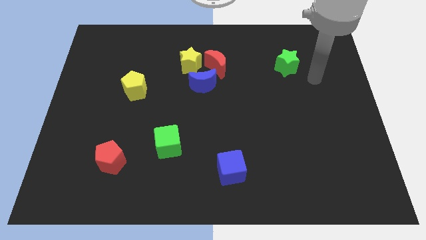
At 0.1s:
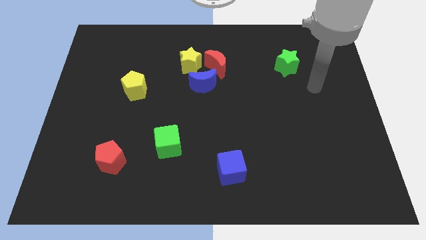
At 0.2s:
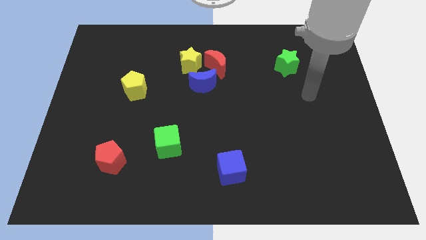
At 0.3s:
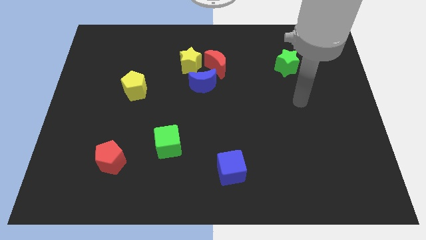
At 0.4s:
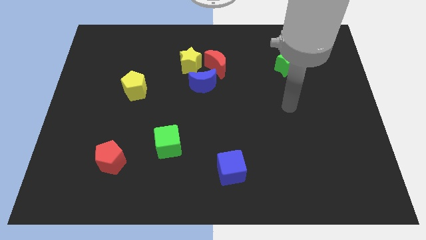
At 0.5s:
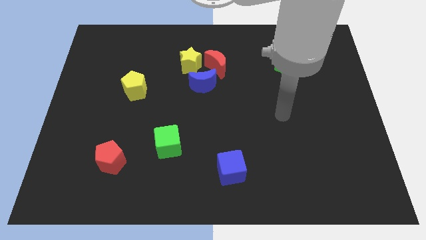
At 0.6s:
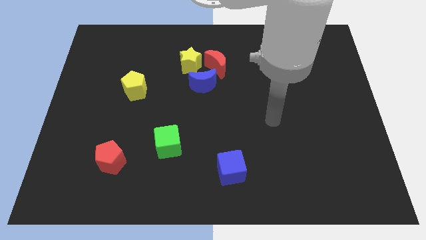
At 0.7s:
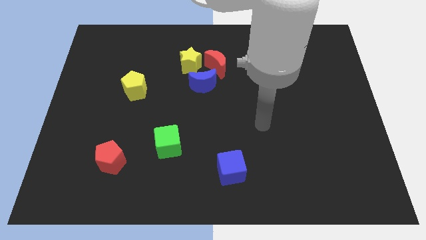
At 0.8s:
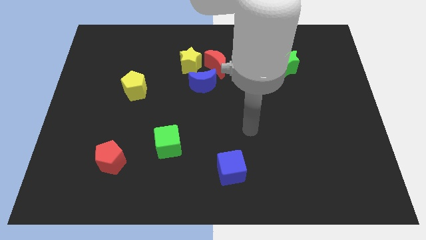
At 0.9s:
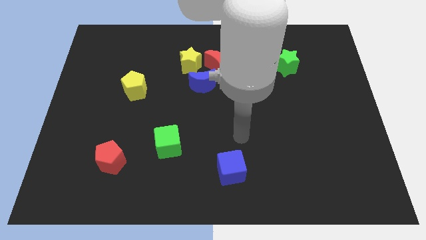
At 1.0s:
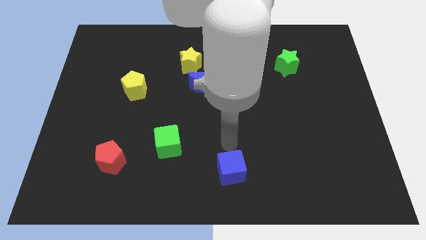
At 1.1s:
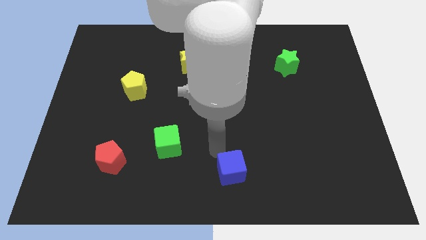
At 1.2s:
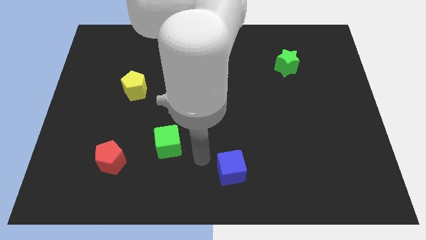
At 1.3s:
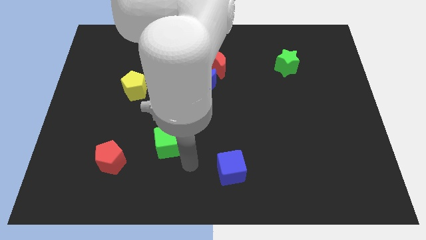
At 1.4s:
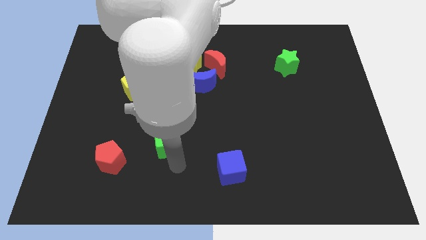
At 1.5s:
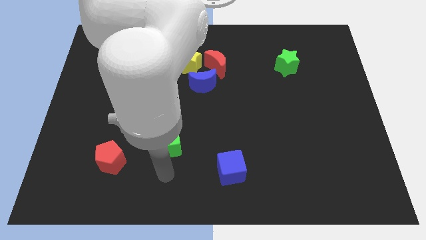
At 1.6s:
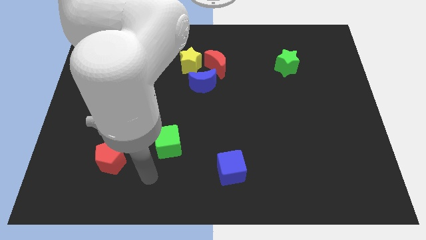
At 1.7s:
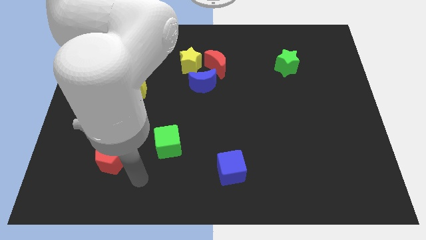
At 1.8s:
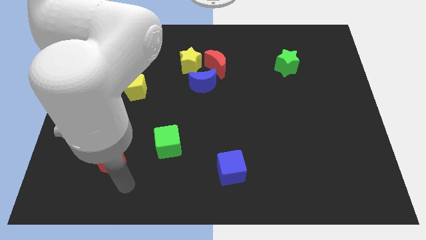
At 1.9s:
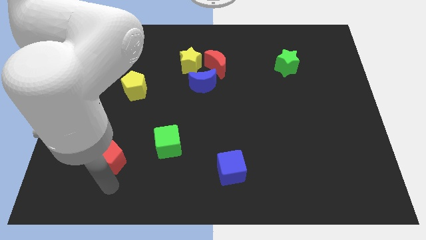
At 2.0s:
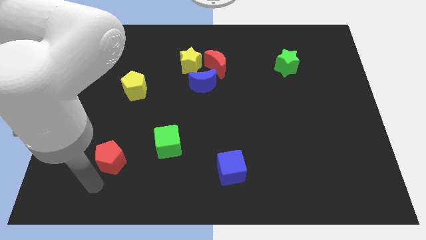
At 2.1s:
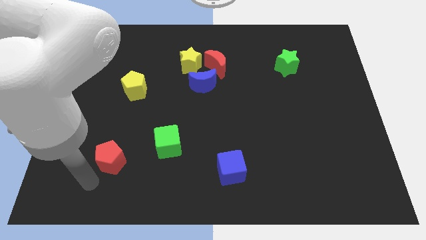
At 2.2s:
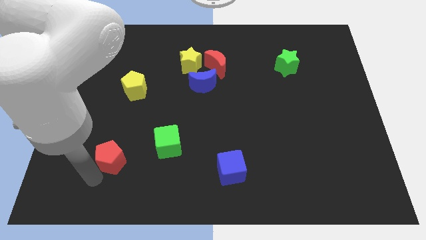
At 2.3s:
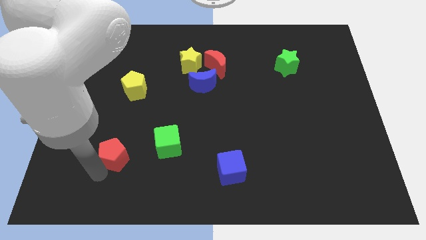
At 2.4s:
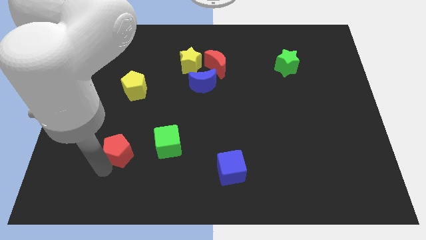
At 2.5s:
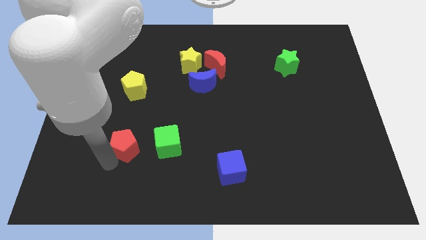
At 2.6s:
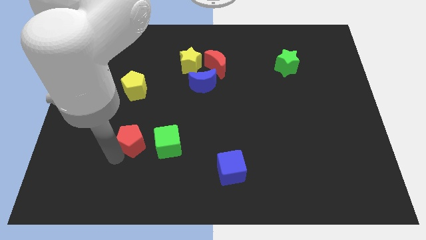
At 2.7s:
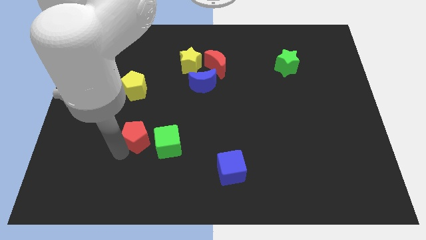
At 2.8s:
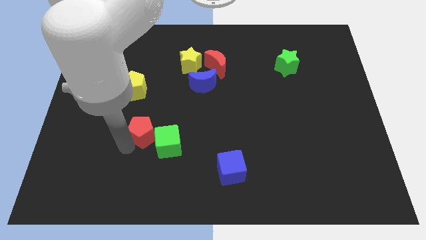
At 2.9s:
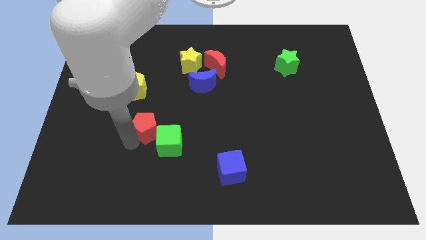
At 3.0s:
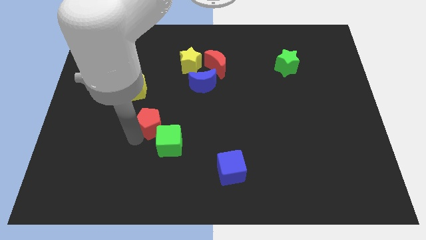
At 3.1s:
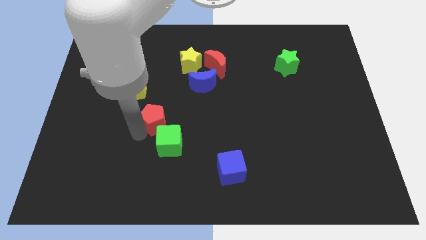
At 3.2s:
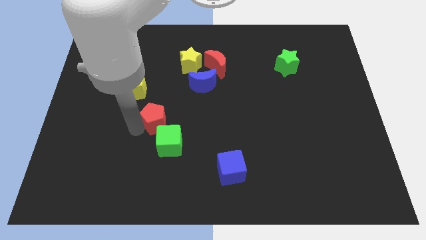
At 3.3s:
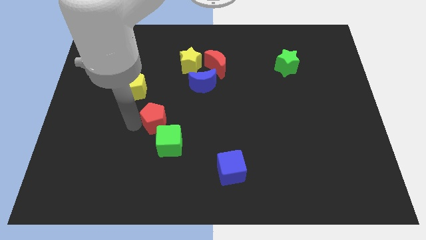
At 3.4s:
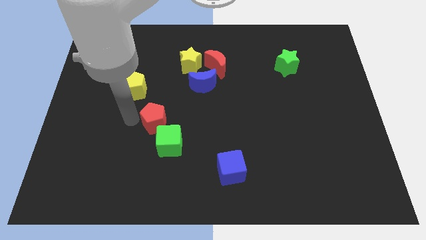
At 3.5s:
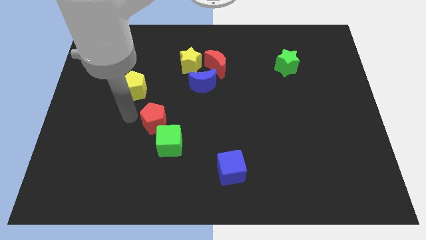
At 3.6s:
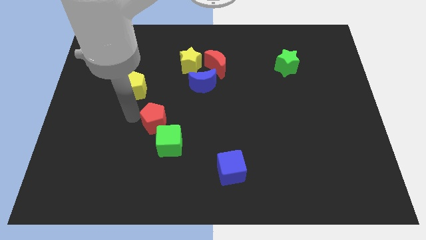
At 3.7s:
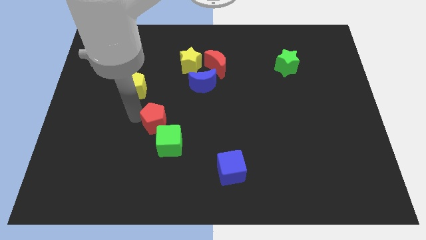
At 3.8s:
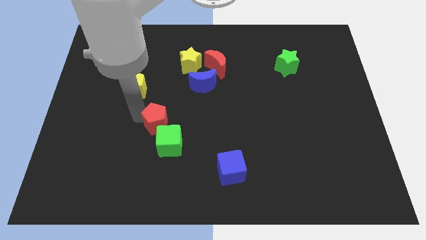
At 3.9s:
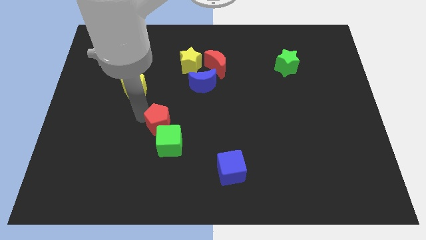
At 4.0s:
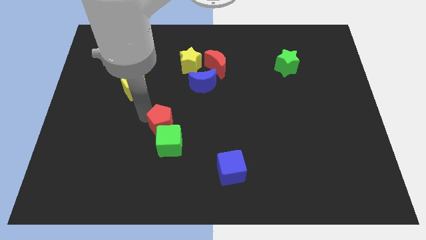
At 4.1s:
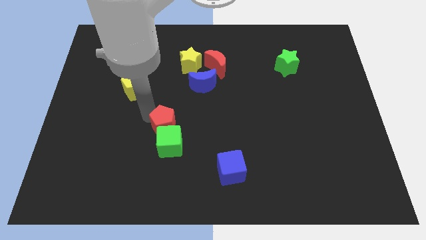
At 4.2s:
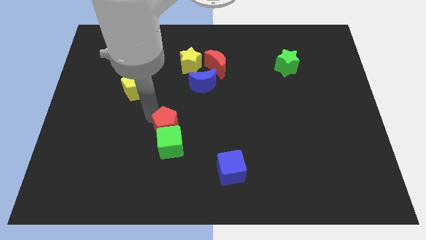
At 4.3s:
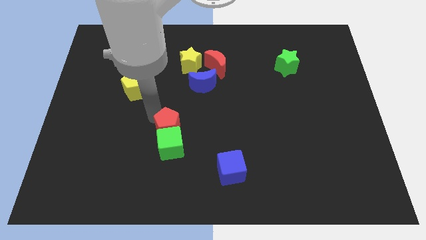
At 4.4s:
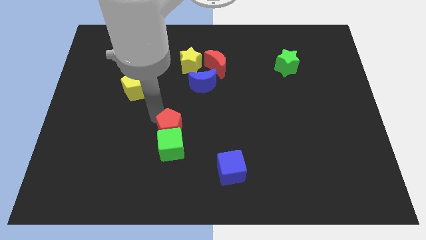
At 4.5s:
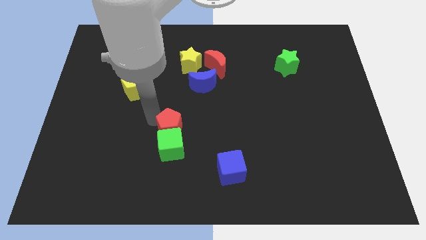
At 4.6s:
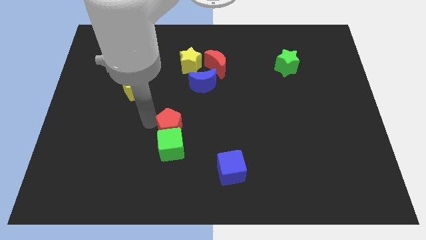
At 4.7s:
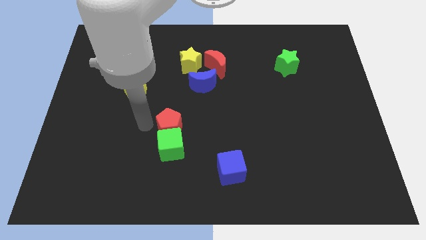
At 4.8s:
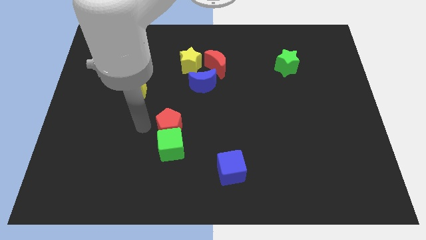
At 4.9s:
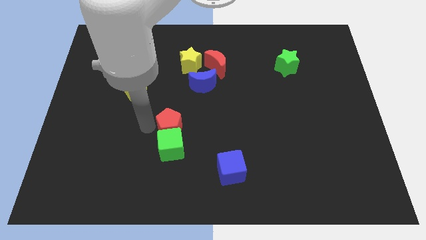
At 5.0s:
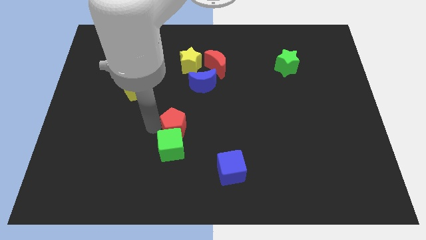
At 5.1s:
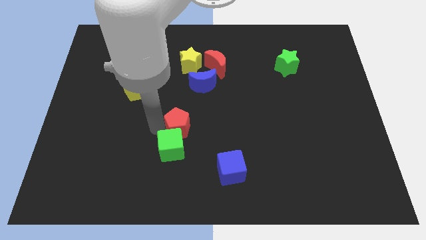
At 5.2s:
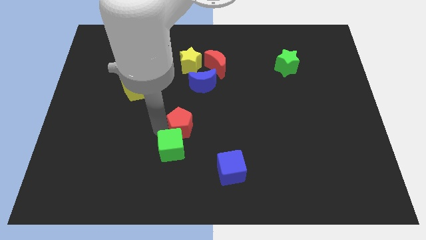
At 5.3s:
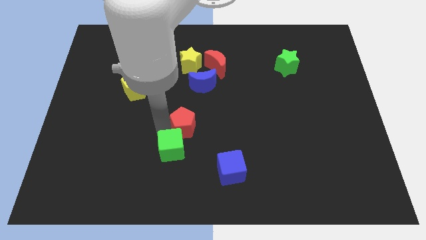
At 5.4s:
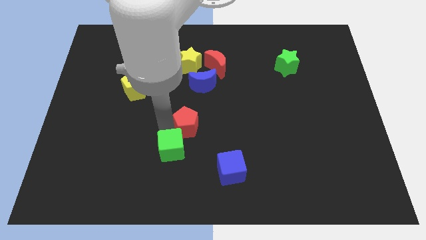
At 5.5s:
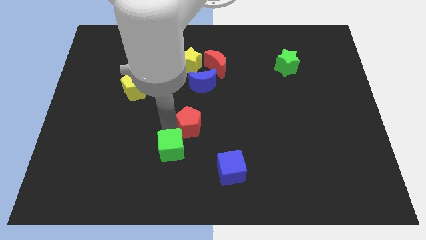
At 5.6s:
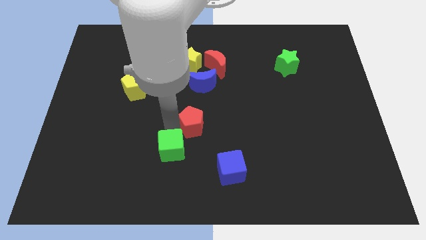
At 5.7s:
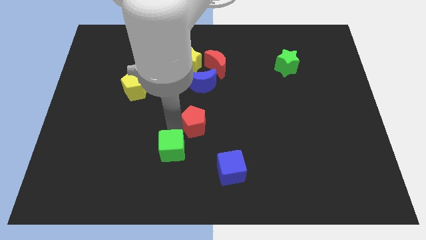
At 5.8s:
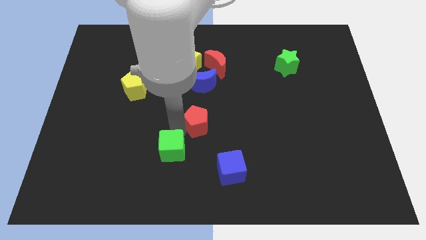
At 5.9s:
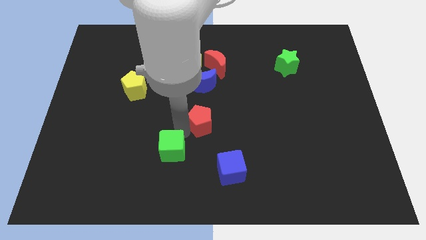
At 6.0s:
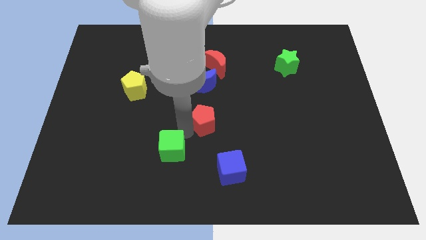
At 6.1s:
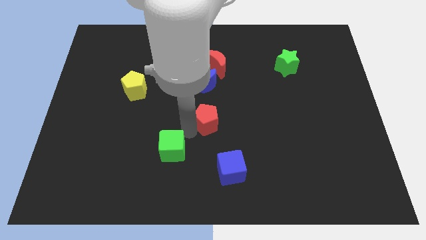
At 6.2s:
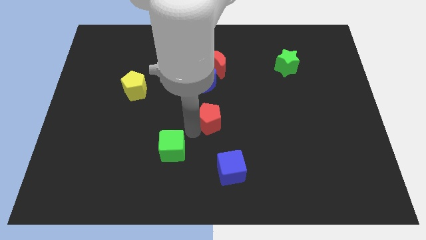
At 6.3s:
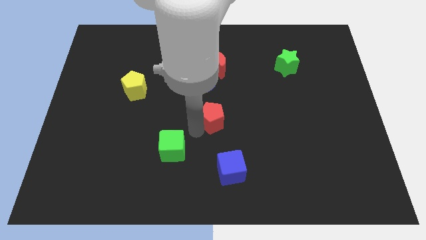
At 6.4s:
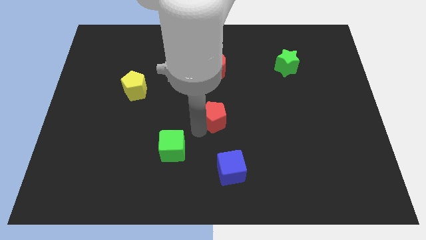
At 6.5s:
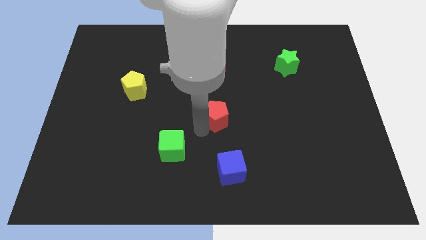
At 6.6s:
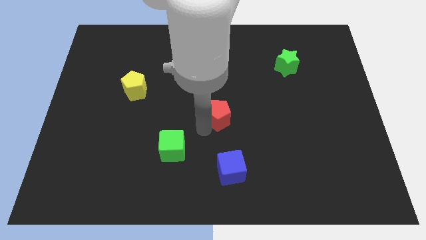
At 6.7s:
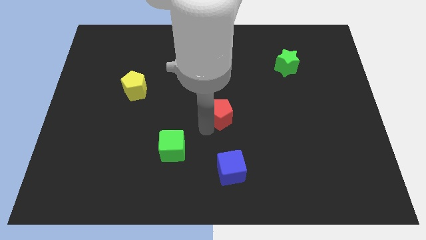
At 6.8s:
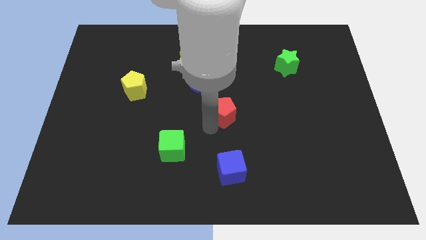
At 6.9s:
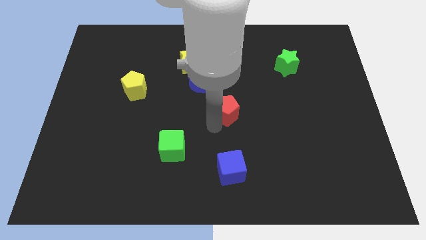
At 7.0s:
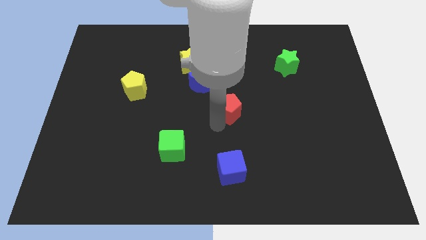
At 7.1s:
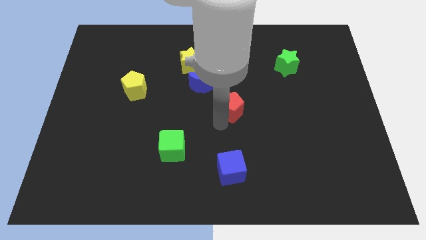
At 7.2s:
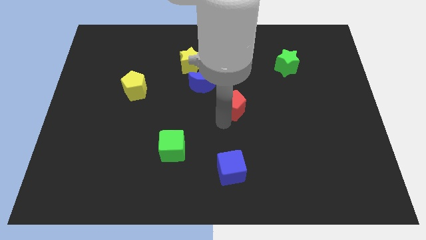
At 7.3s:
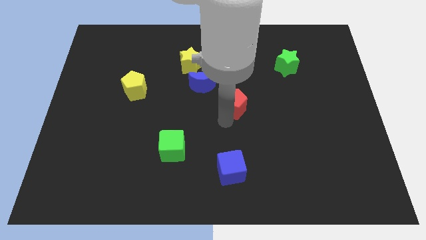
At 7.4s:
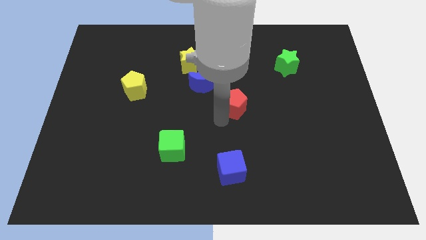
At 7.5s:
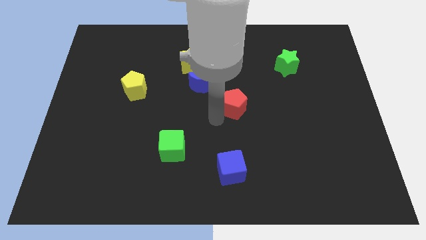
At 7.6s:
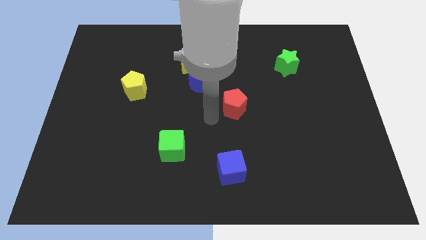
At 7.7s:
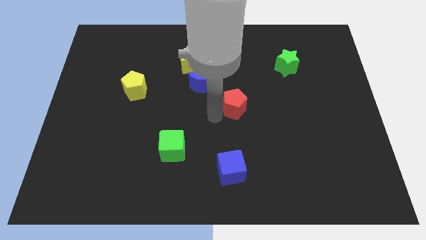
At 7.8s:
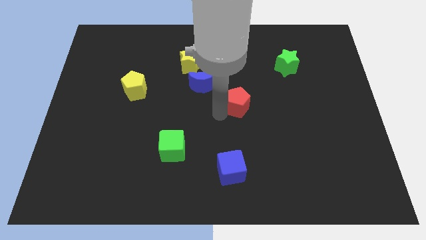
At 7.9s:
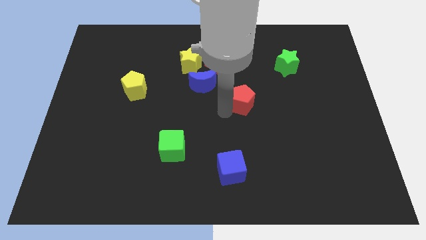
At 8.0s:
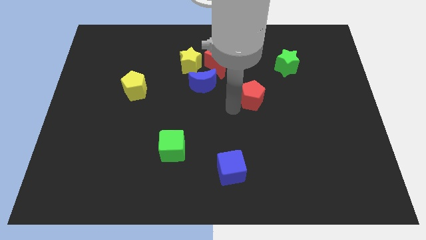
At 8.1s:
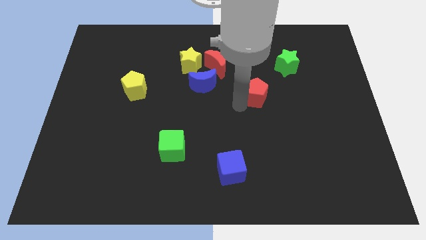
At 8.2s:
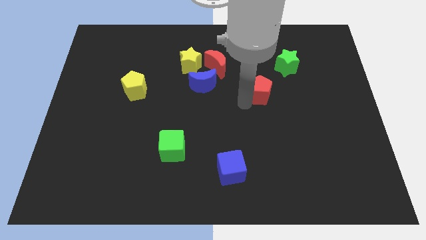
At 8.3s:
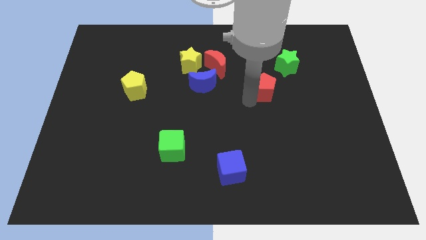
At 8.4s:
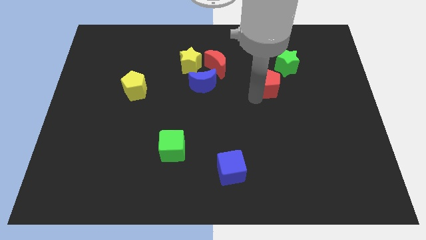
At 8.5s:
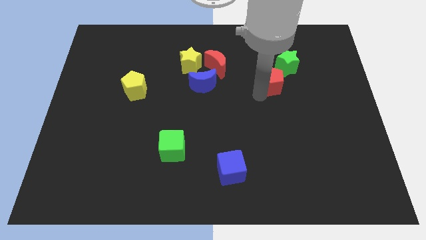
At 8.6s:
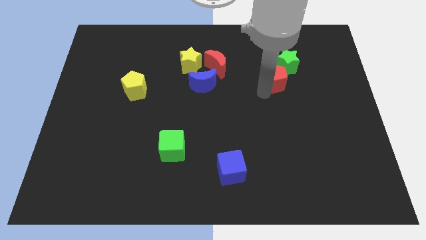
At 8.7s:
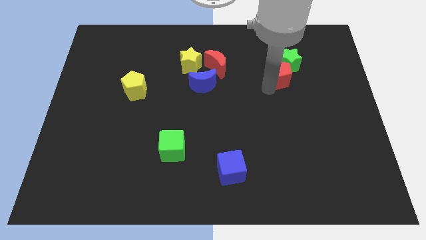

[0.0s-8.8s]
slide the red pentagon towards the green star
